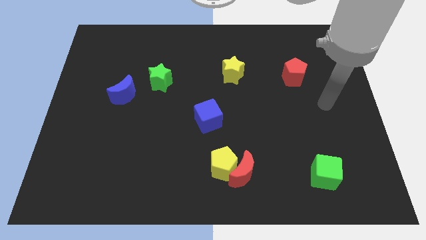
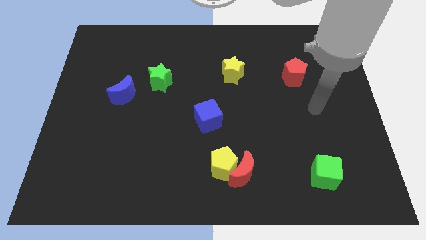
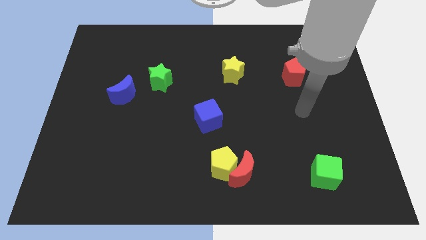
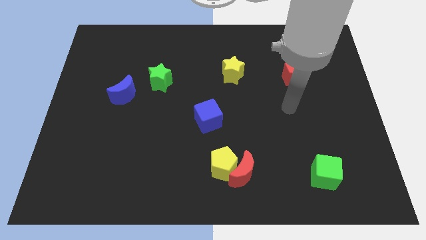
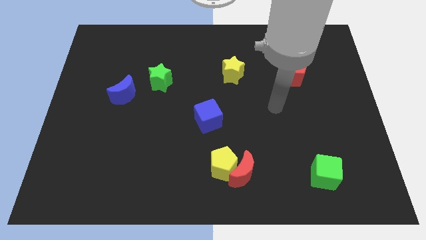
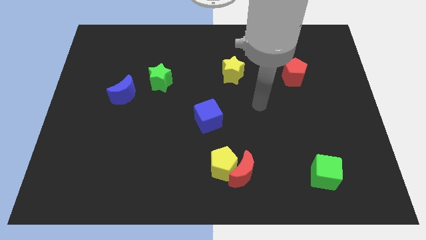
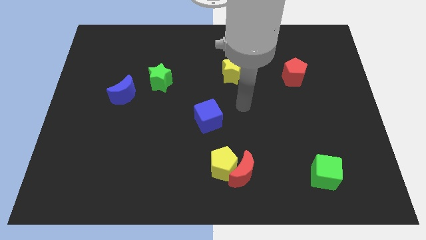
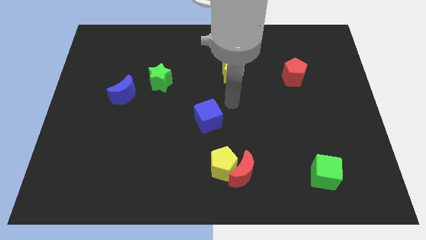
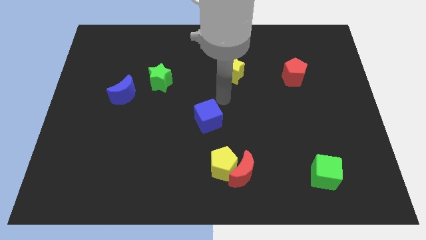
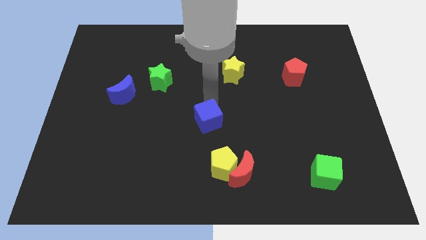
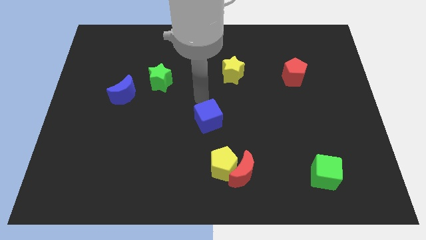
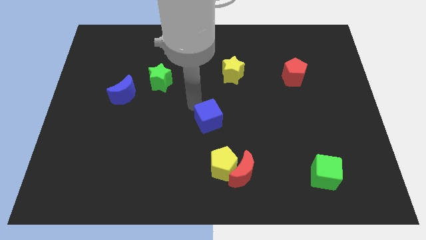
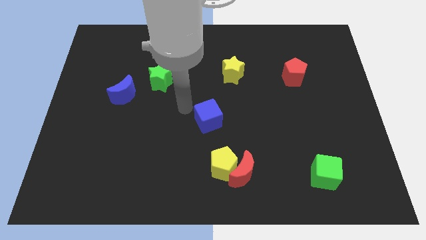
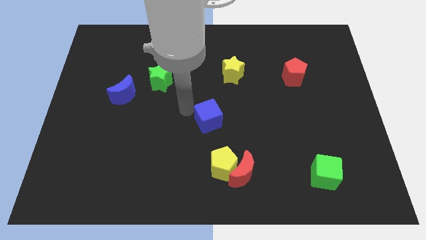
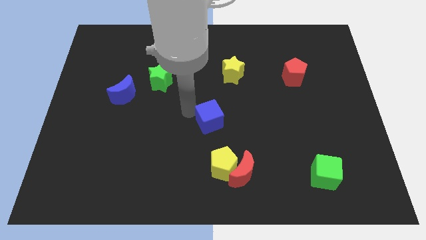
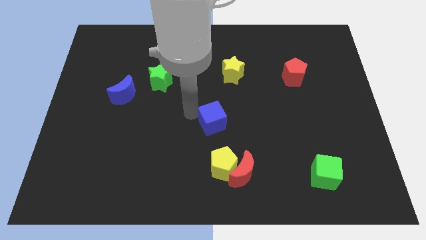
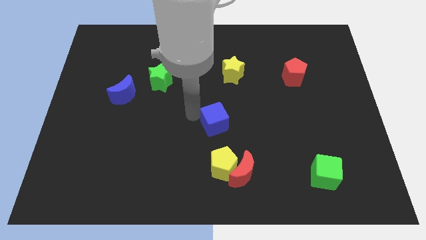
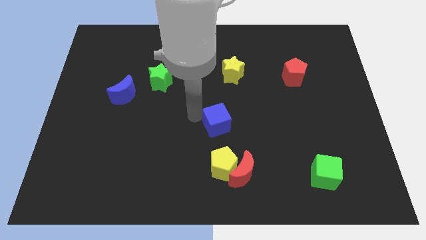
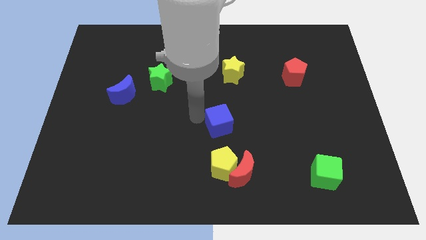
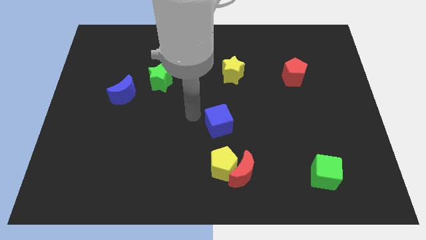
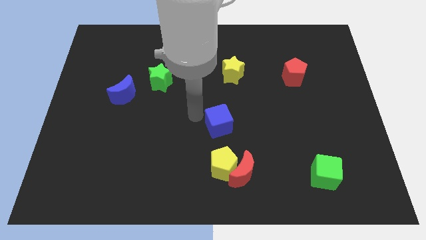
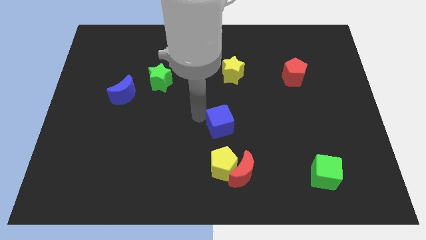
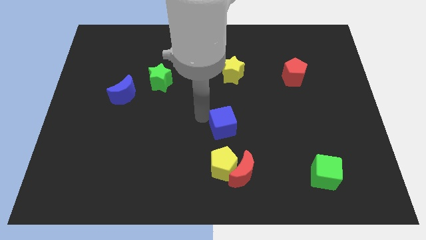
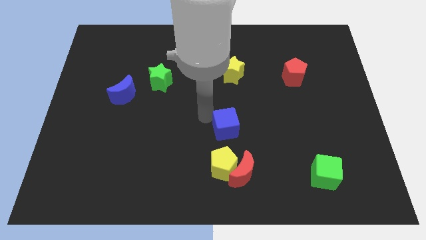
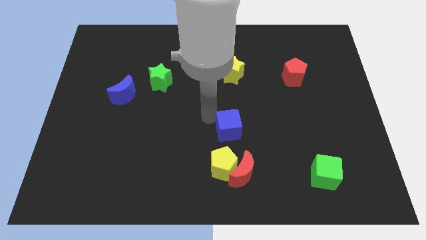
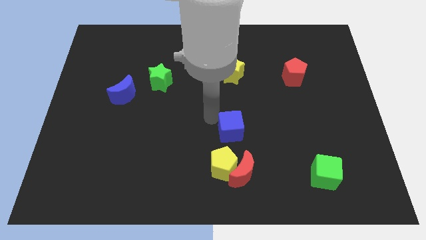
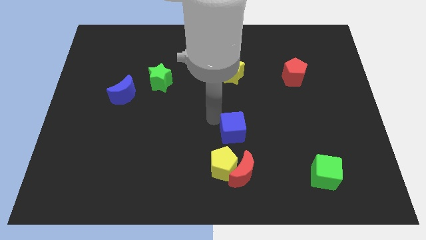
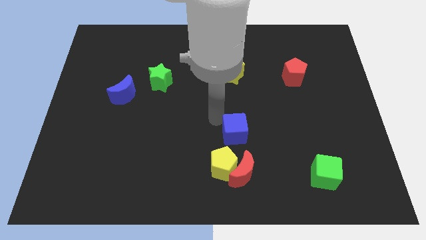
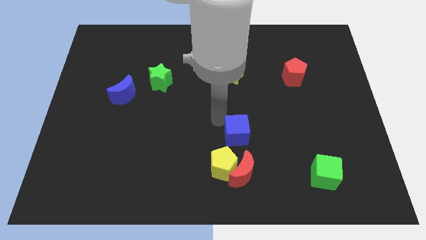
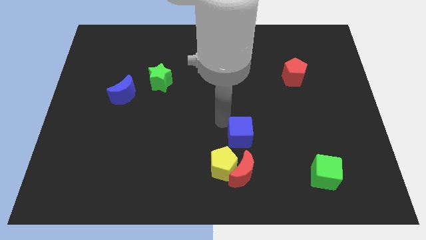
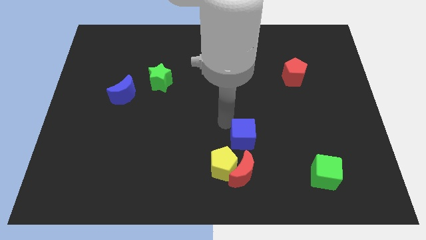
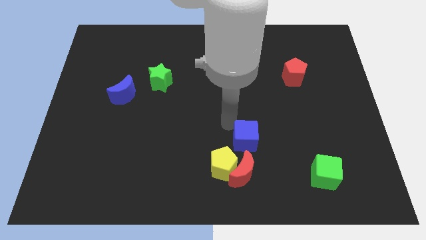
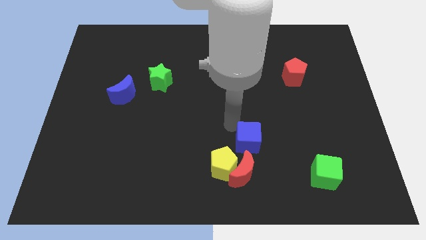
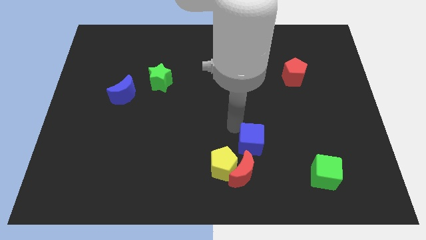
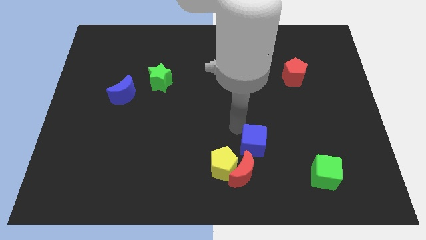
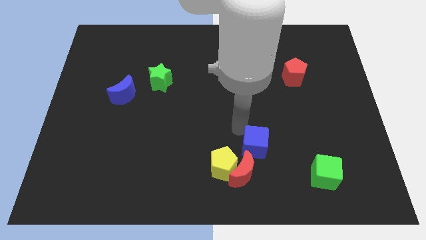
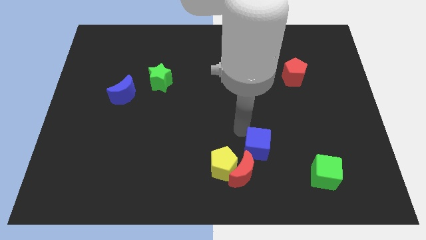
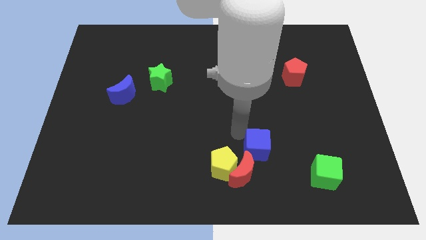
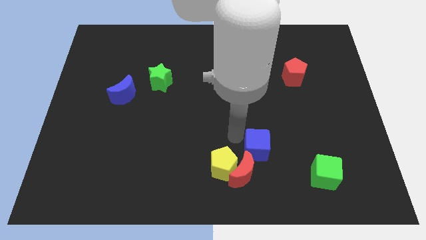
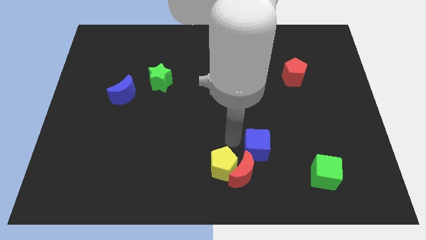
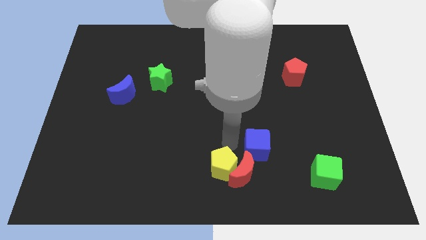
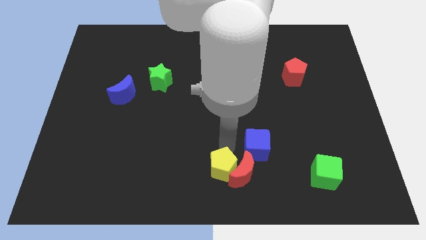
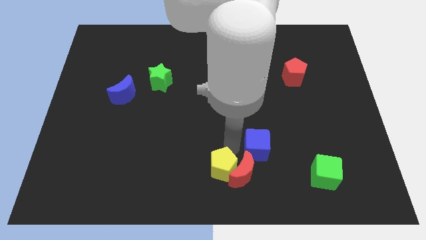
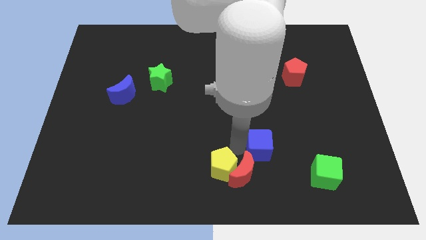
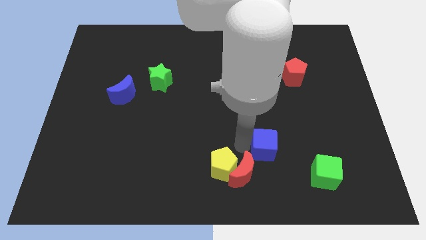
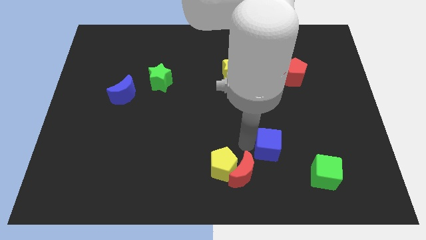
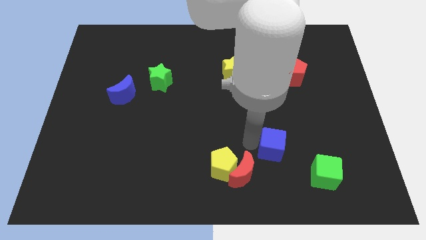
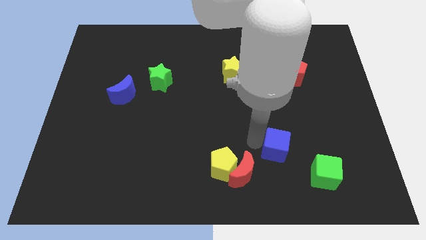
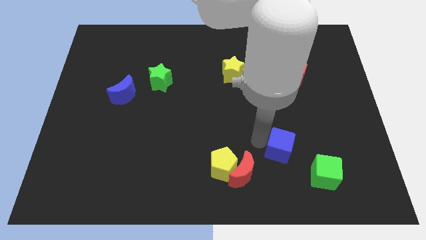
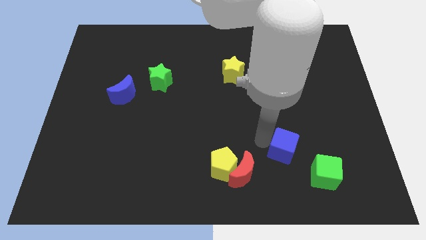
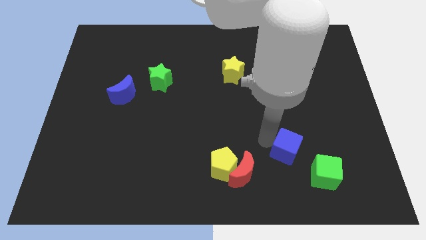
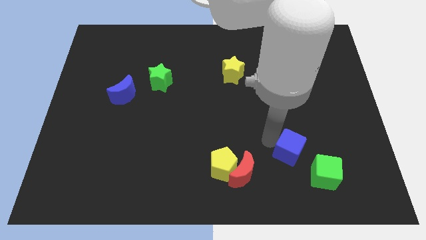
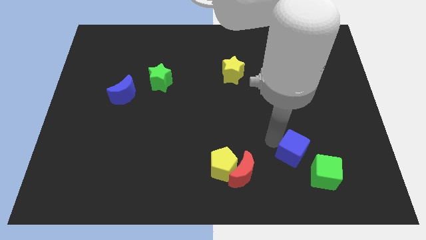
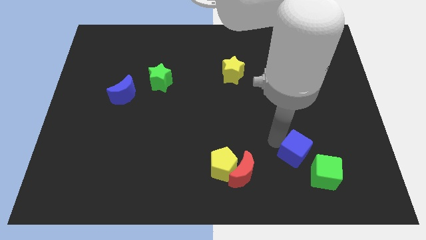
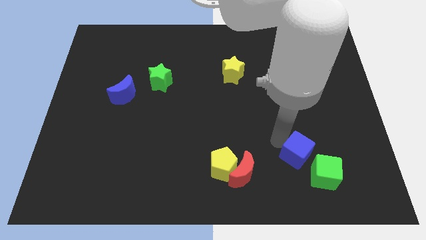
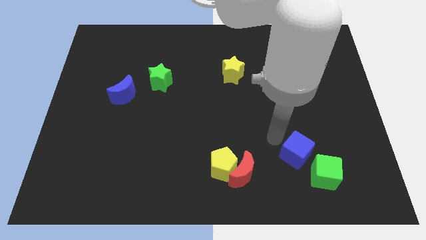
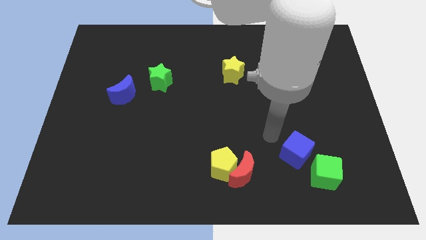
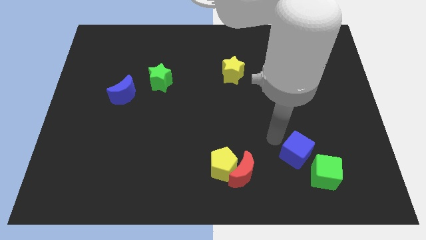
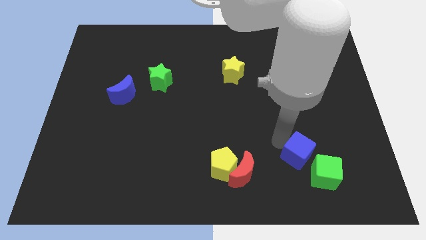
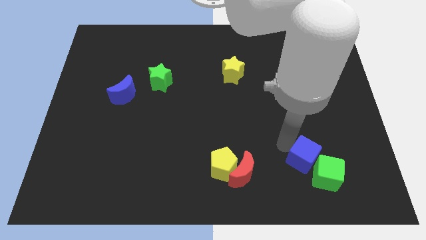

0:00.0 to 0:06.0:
slide the blue cube towards the green cube

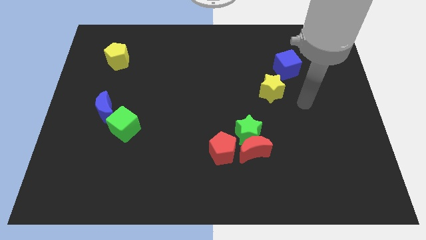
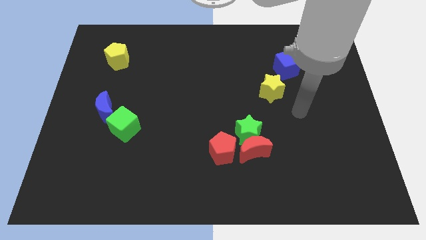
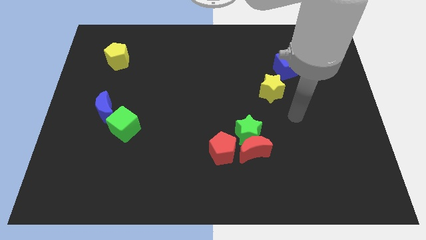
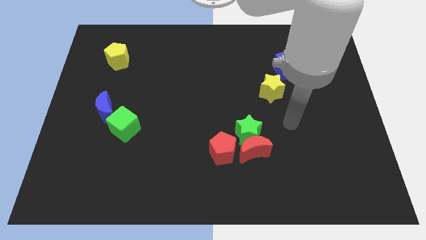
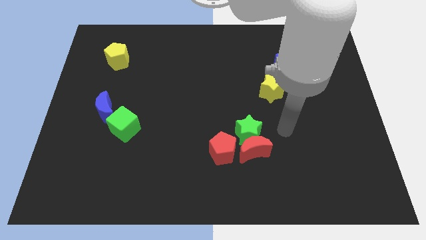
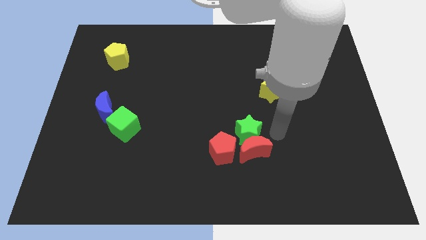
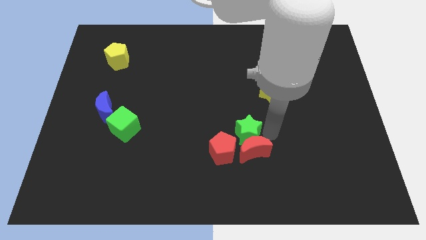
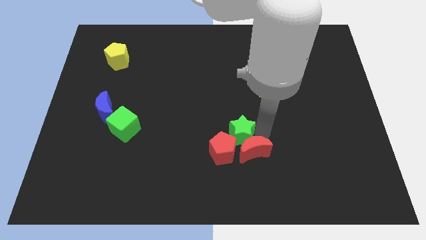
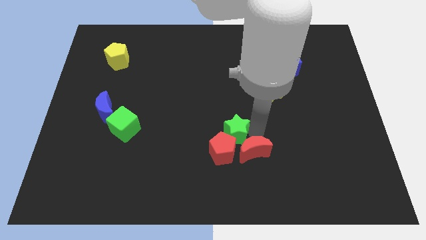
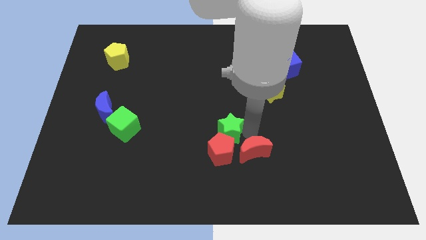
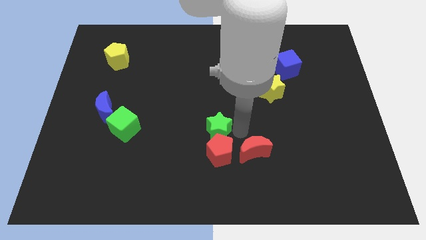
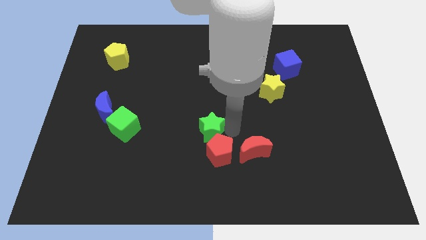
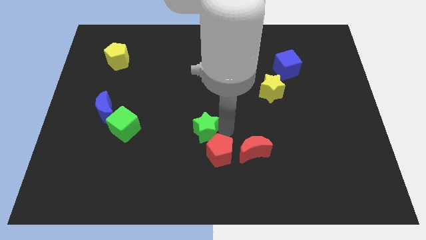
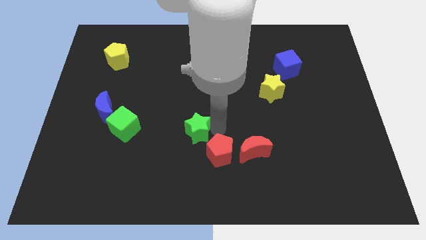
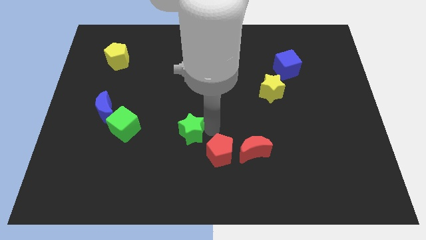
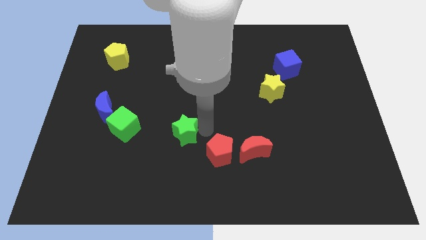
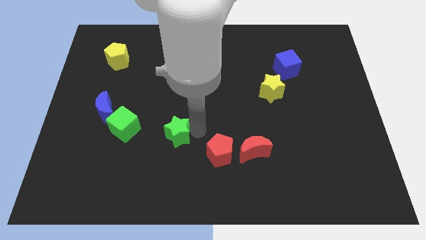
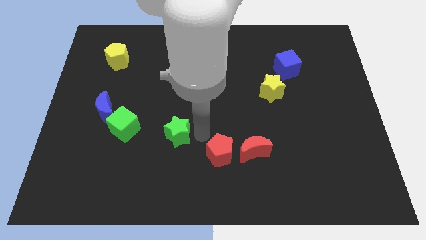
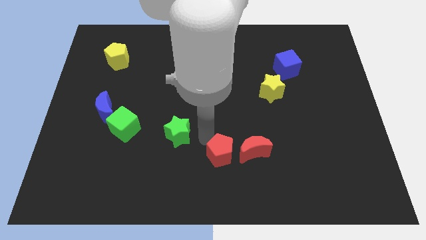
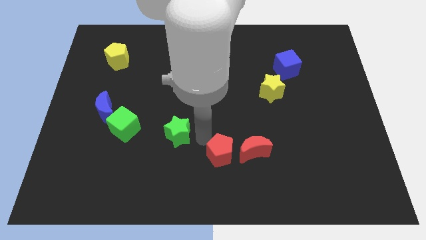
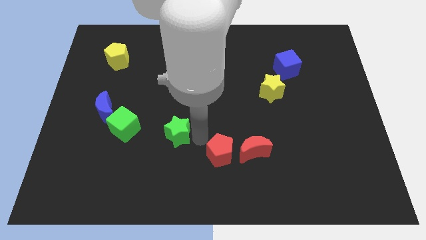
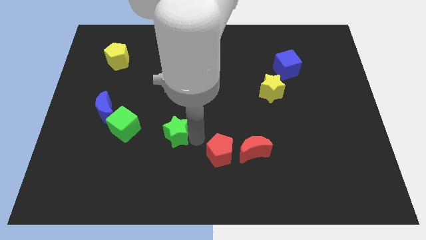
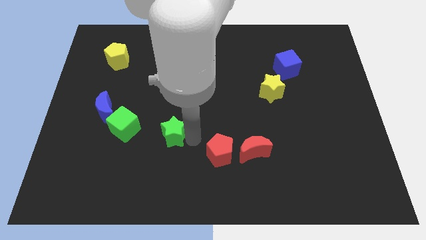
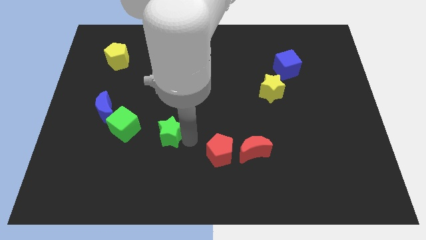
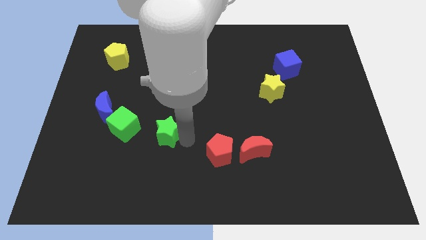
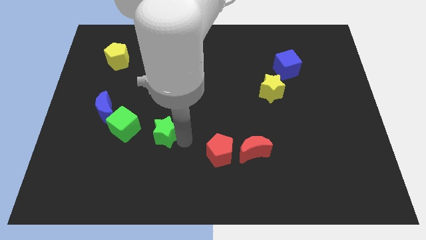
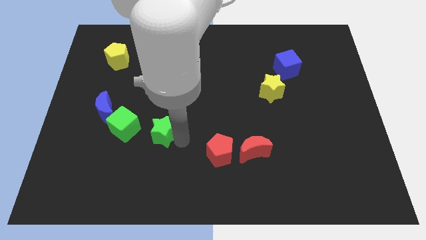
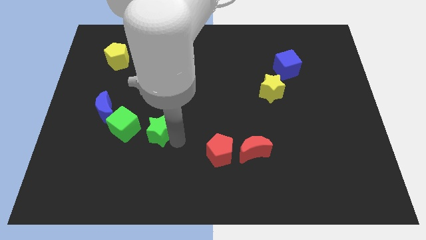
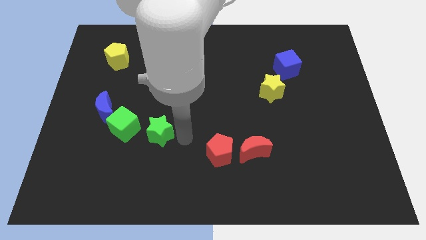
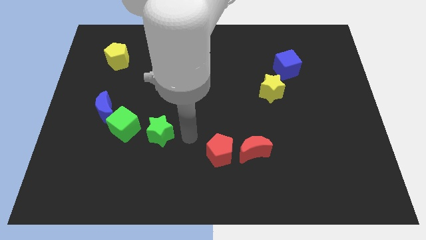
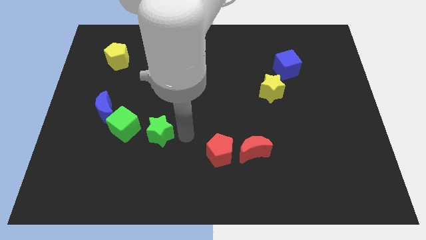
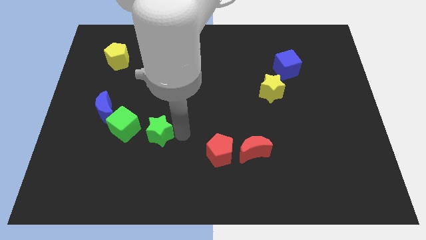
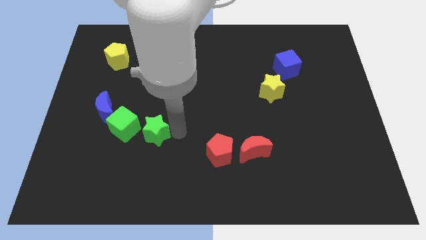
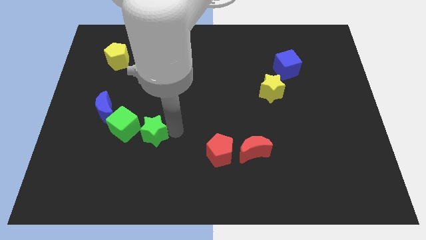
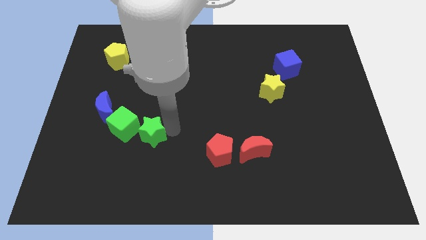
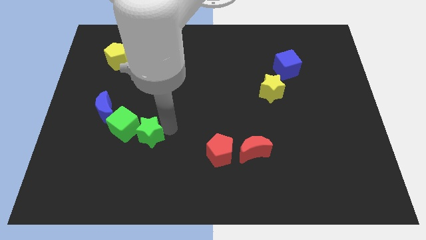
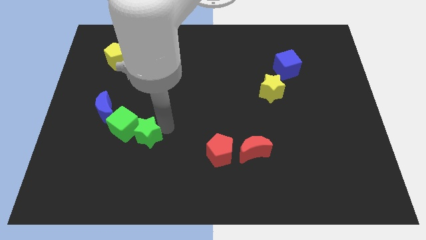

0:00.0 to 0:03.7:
slide the green star towards the green cube
